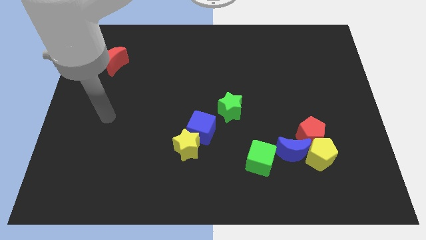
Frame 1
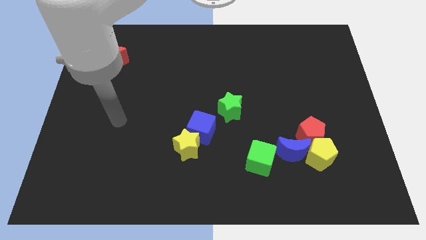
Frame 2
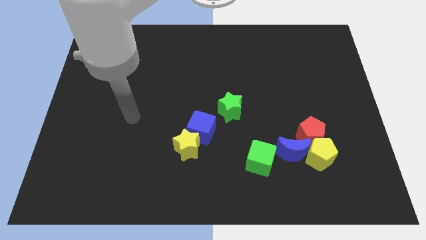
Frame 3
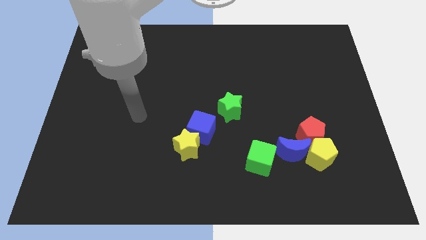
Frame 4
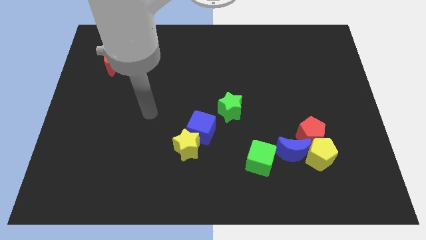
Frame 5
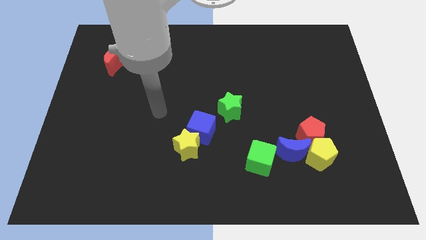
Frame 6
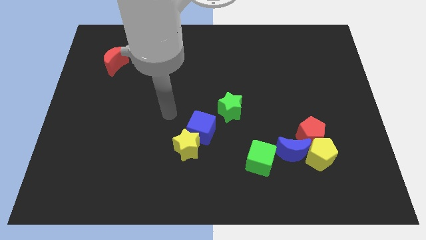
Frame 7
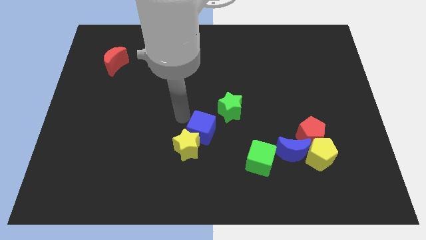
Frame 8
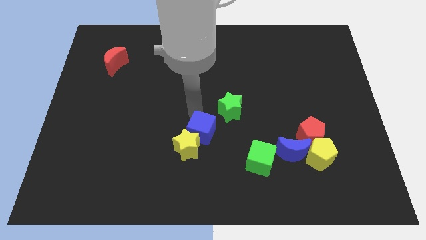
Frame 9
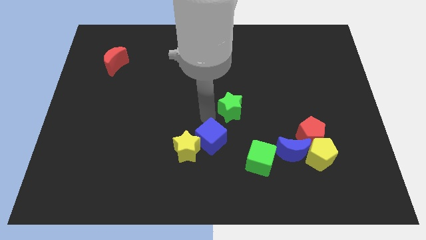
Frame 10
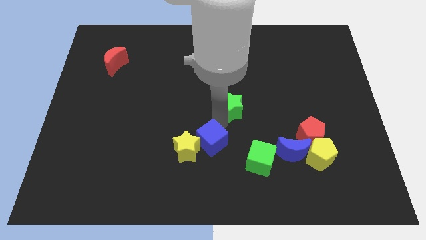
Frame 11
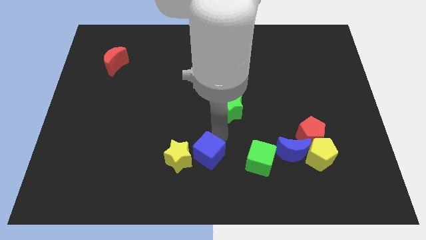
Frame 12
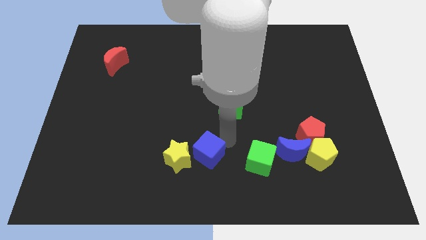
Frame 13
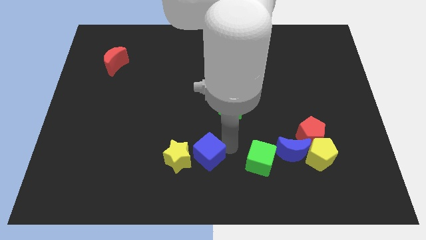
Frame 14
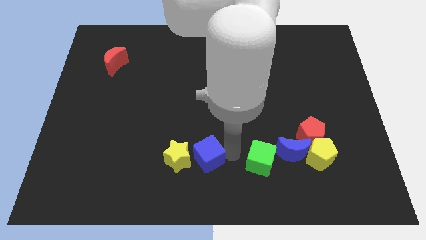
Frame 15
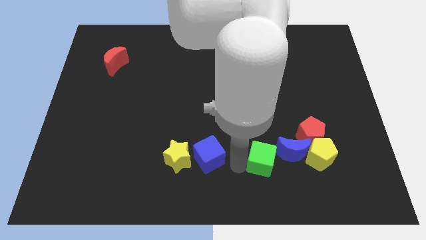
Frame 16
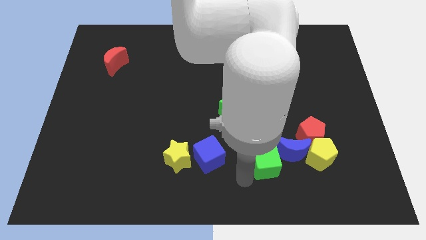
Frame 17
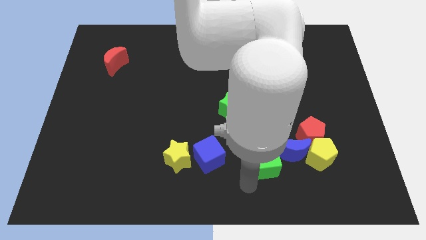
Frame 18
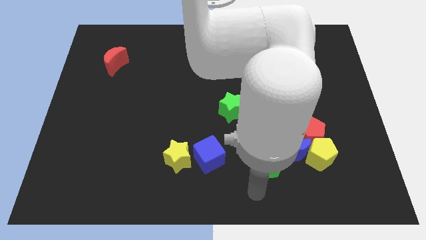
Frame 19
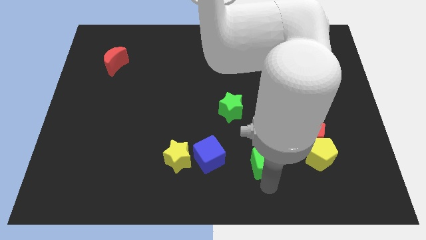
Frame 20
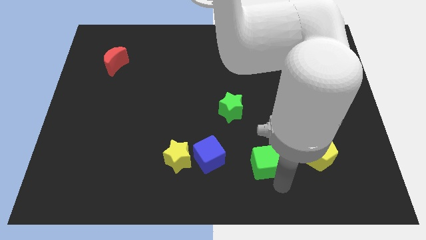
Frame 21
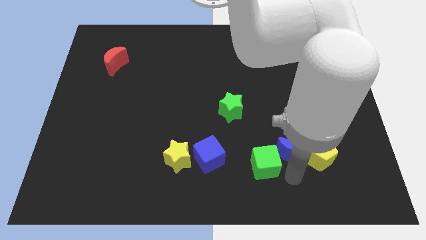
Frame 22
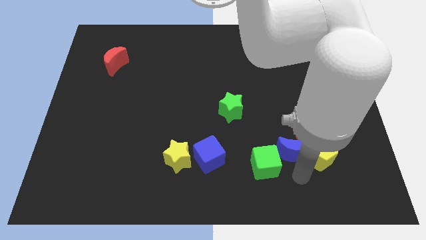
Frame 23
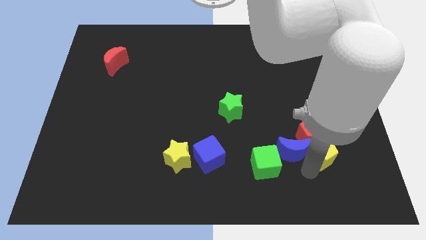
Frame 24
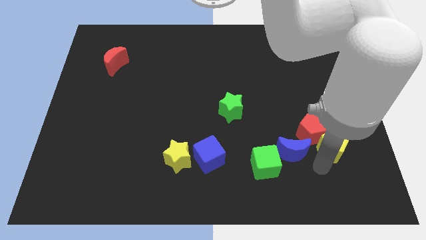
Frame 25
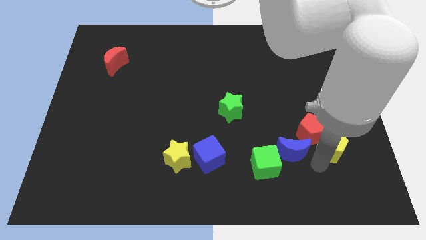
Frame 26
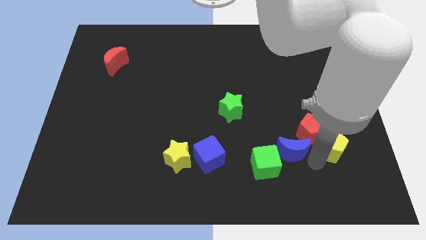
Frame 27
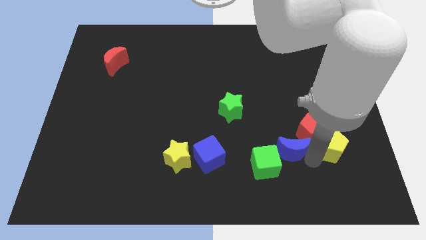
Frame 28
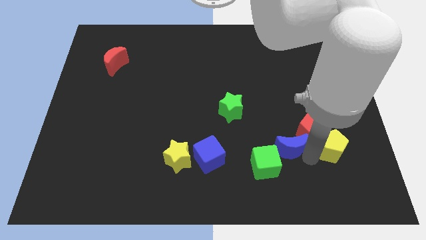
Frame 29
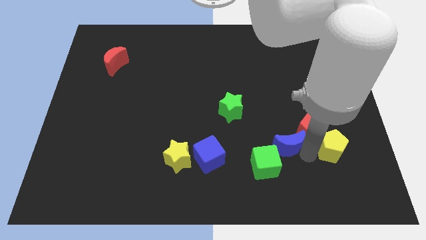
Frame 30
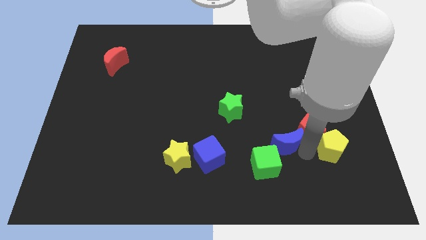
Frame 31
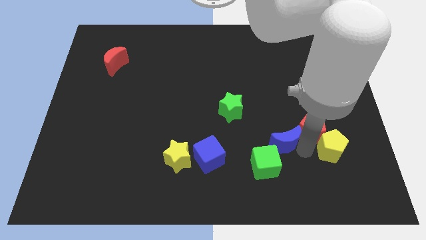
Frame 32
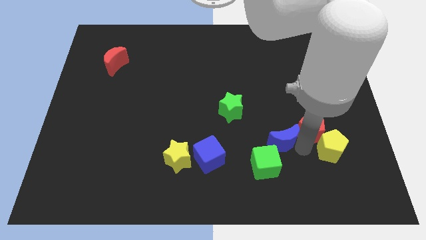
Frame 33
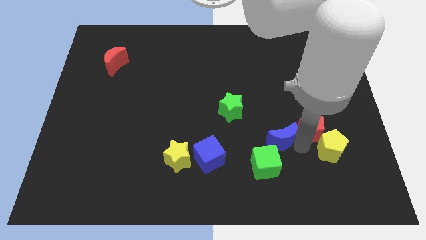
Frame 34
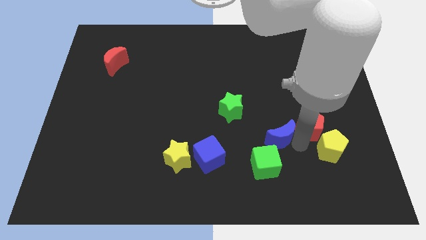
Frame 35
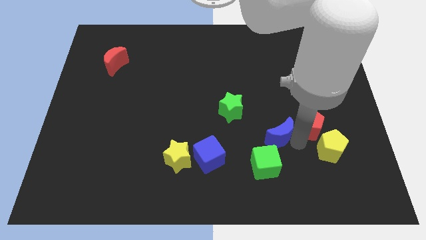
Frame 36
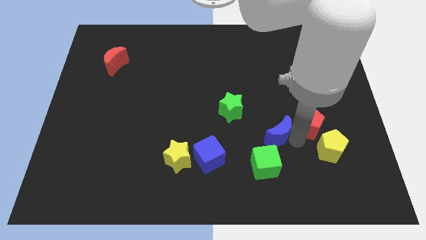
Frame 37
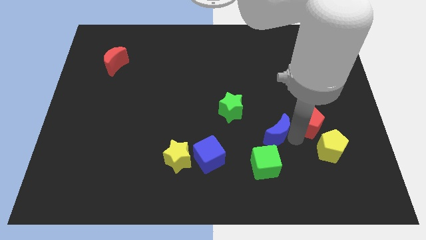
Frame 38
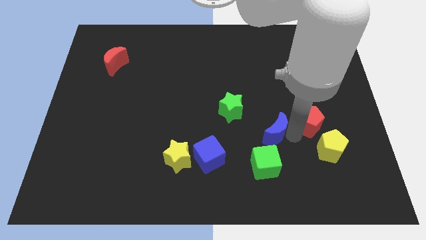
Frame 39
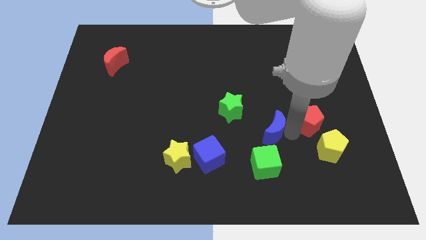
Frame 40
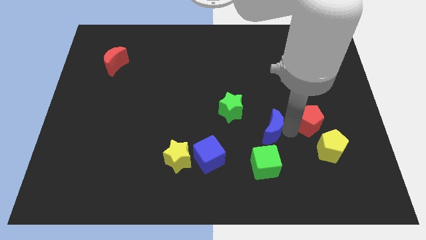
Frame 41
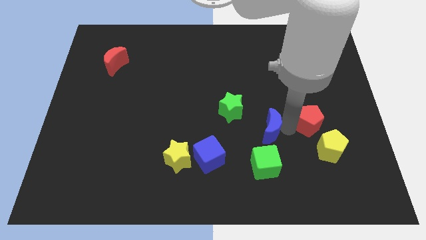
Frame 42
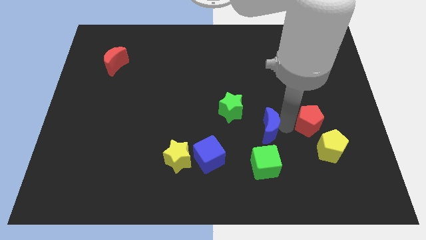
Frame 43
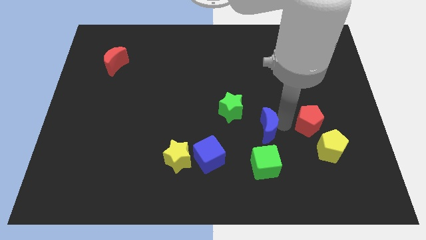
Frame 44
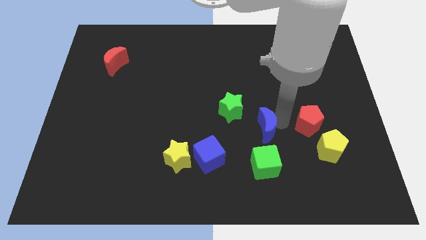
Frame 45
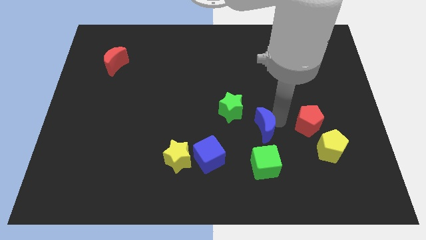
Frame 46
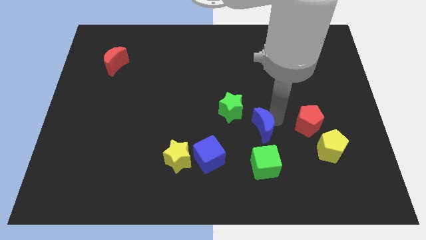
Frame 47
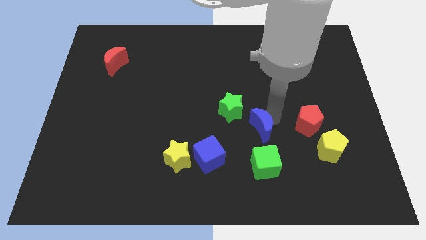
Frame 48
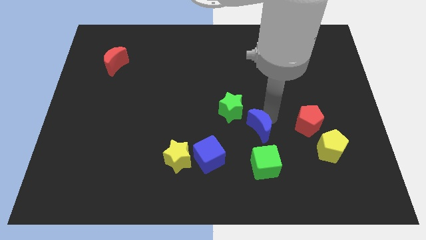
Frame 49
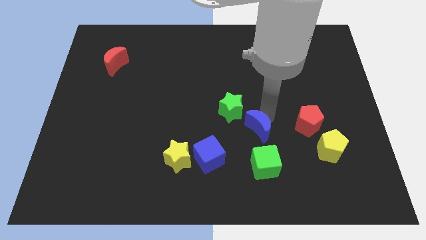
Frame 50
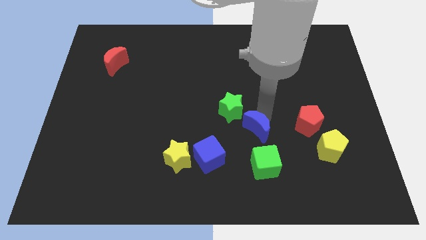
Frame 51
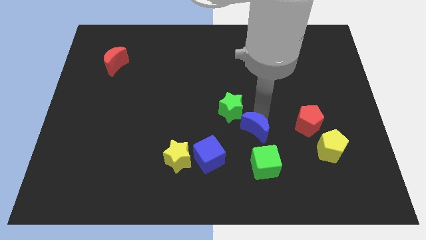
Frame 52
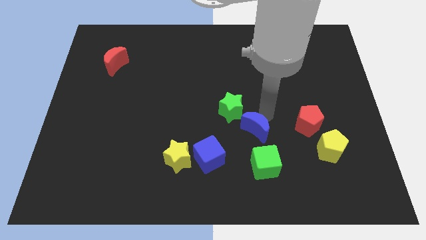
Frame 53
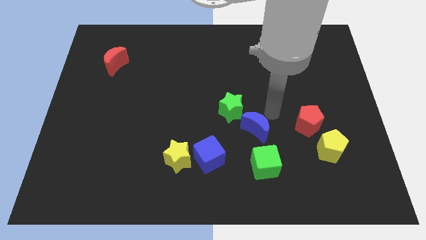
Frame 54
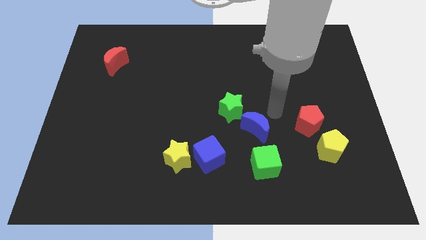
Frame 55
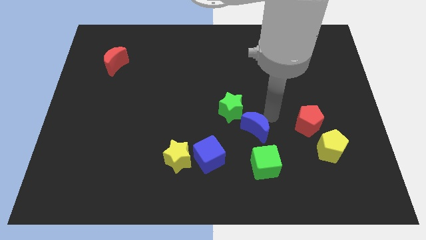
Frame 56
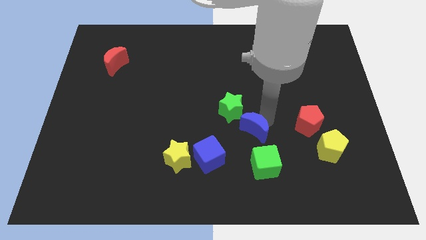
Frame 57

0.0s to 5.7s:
move the blue moon to the bottom side of the green star

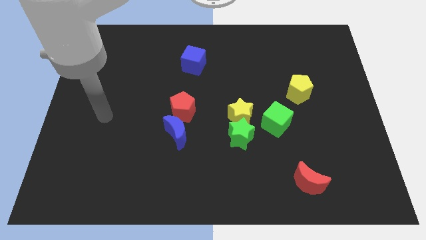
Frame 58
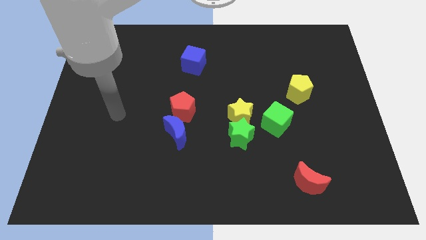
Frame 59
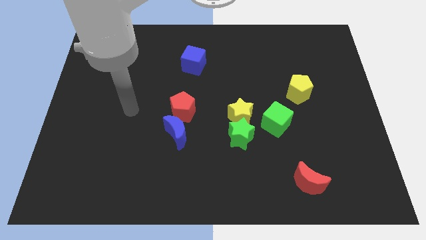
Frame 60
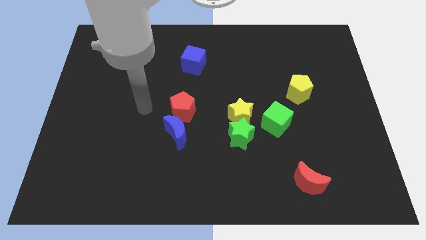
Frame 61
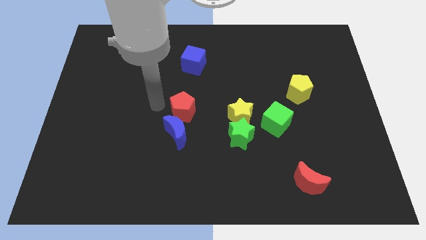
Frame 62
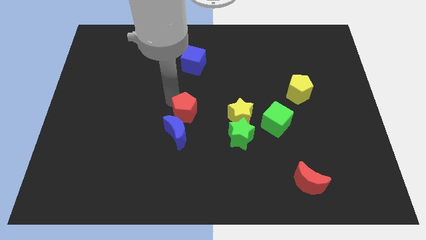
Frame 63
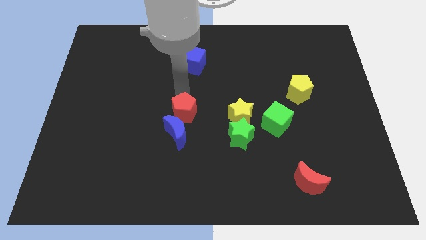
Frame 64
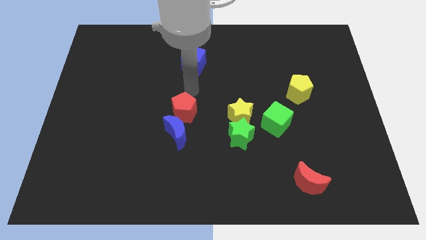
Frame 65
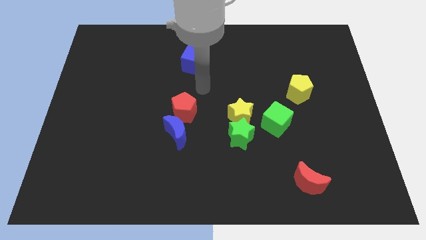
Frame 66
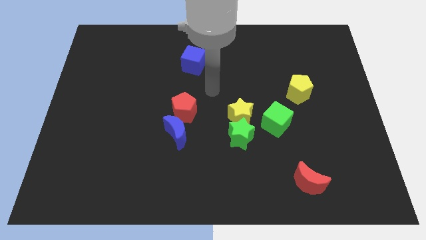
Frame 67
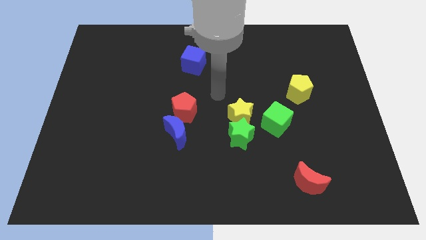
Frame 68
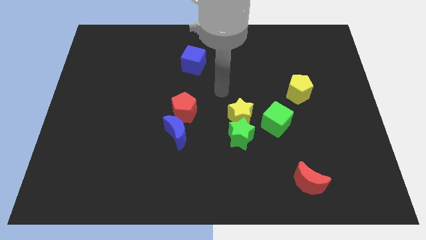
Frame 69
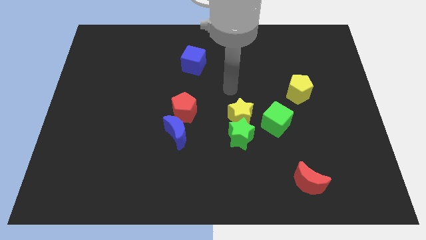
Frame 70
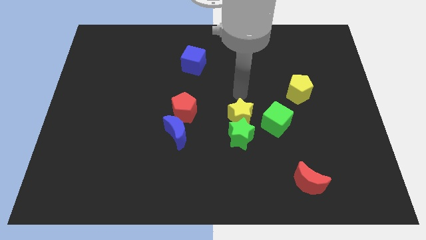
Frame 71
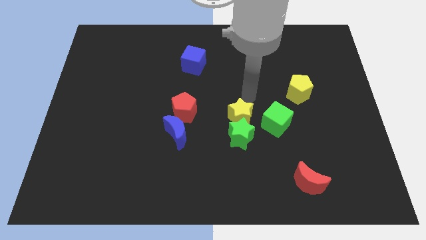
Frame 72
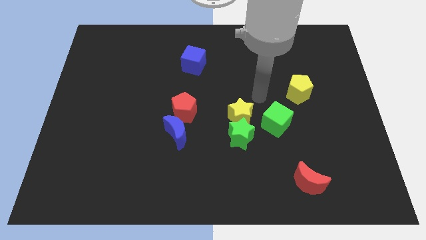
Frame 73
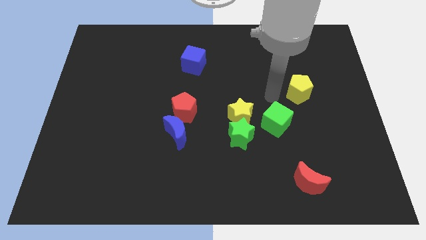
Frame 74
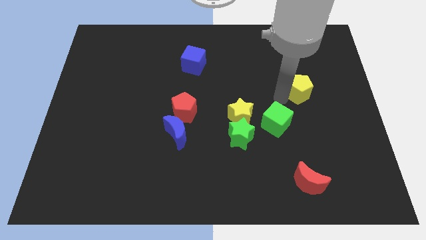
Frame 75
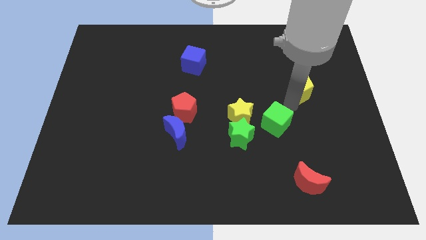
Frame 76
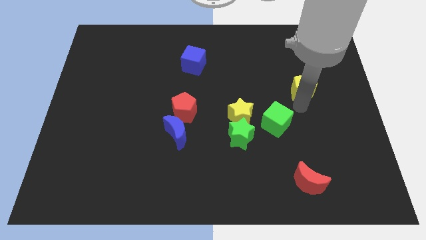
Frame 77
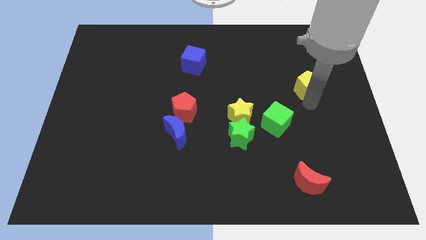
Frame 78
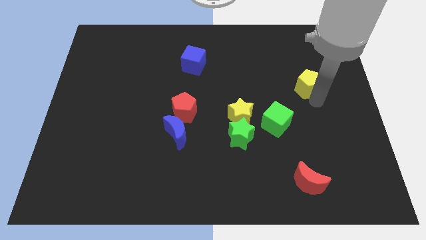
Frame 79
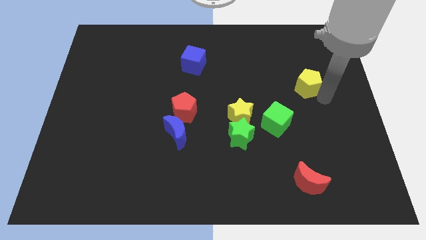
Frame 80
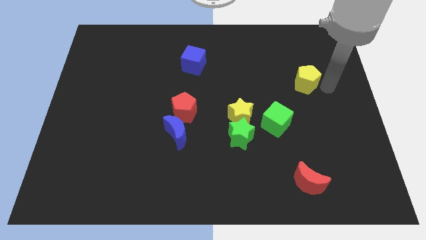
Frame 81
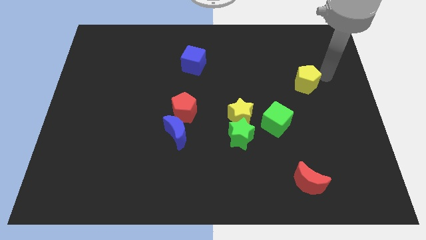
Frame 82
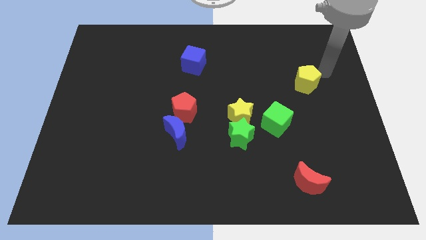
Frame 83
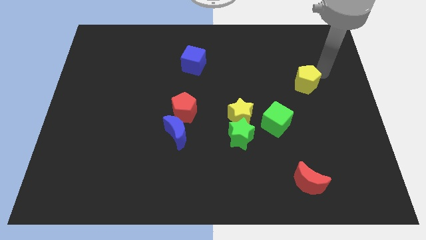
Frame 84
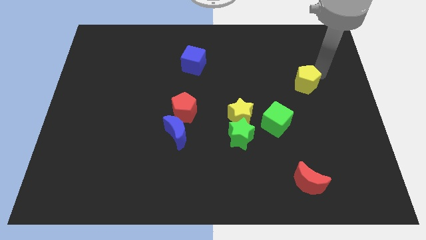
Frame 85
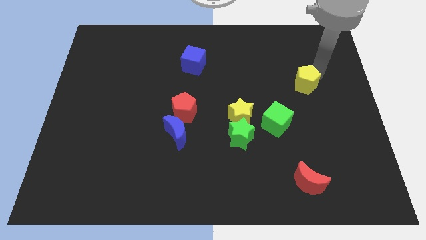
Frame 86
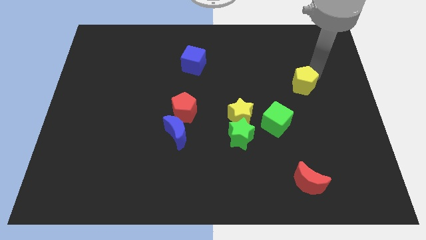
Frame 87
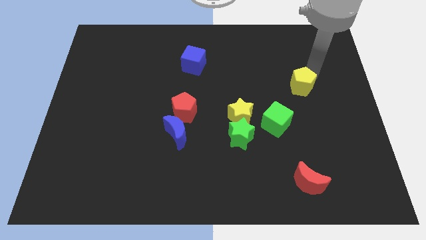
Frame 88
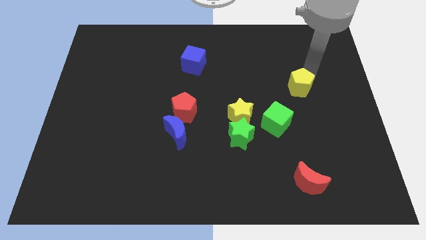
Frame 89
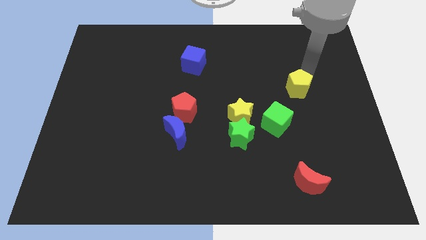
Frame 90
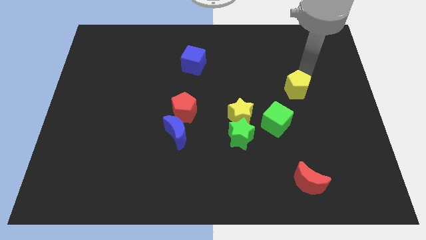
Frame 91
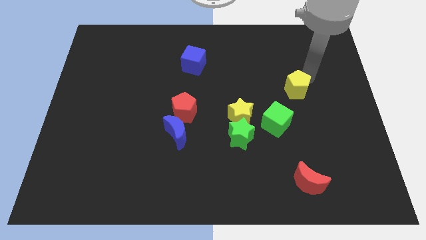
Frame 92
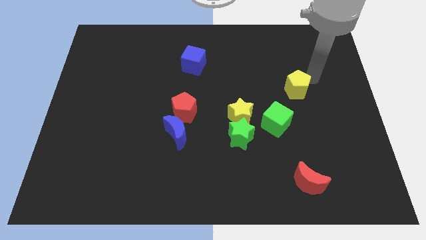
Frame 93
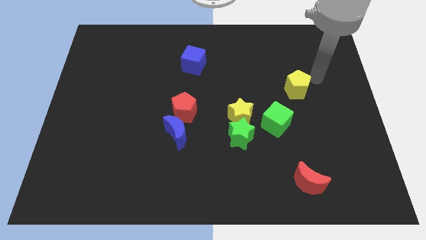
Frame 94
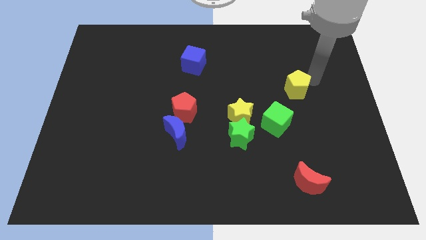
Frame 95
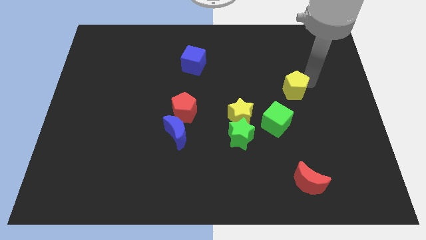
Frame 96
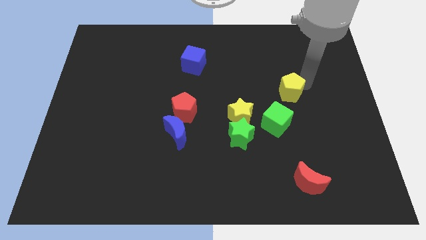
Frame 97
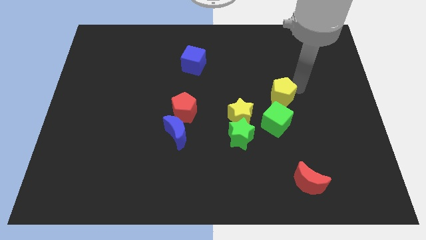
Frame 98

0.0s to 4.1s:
put the yellow pentagon to the top right side of the yellow star
